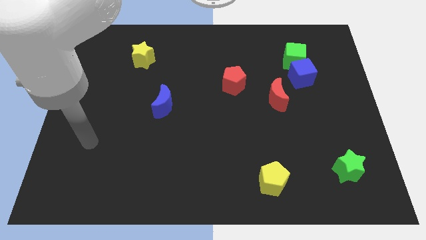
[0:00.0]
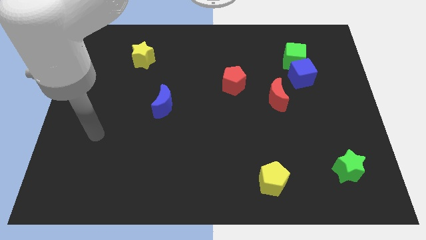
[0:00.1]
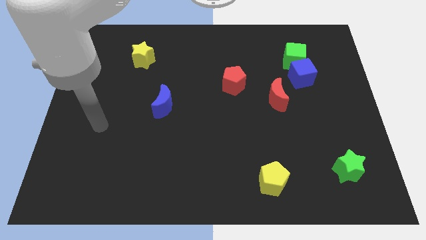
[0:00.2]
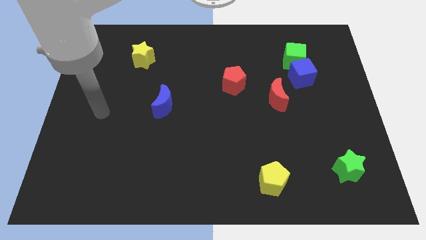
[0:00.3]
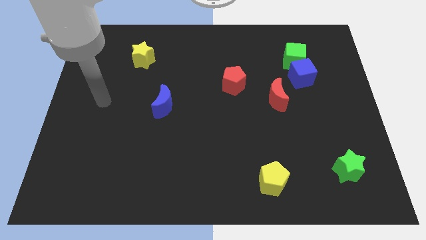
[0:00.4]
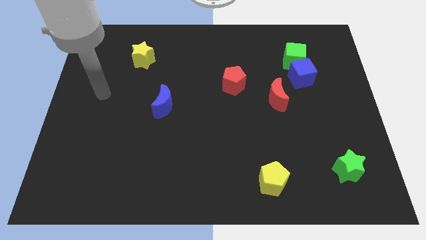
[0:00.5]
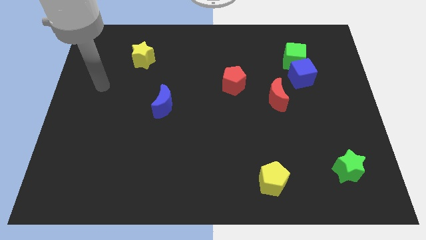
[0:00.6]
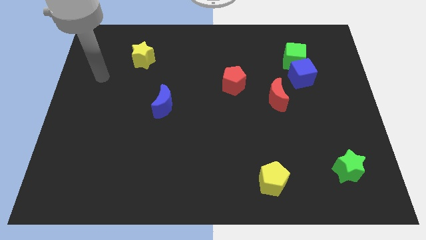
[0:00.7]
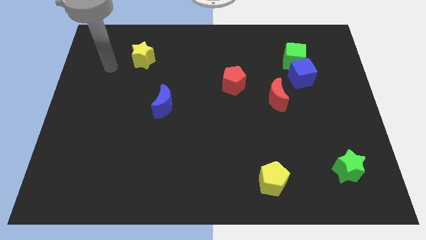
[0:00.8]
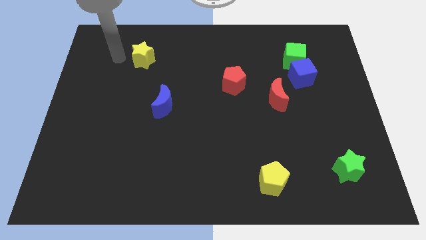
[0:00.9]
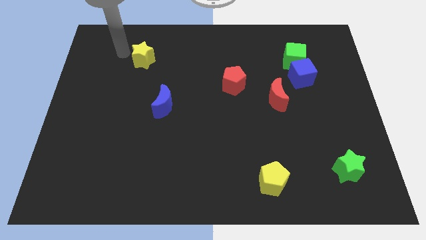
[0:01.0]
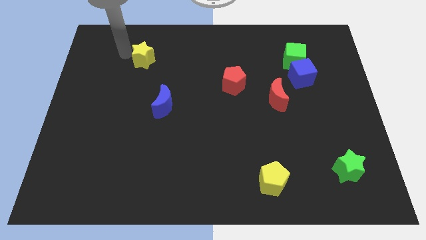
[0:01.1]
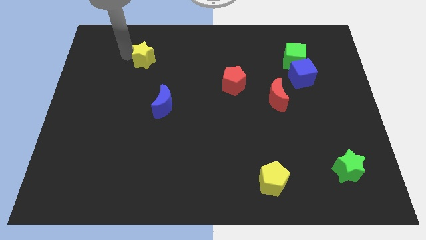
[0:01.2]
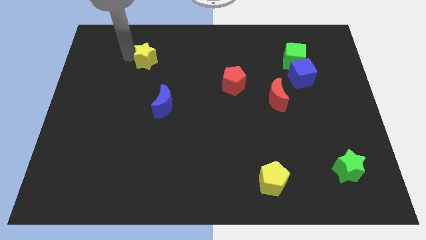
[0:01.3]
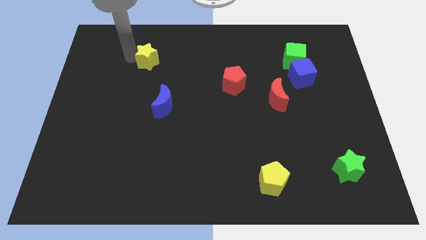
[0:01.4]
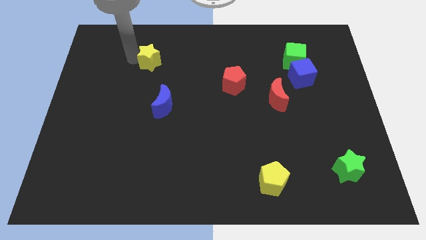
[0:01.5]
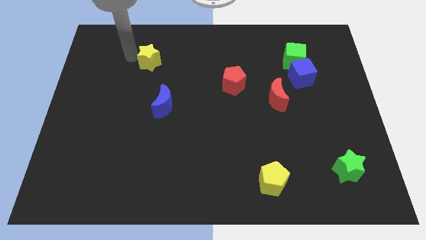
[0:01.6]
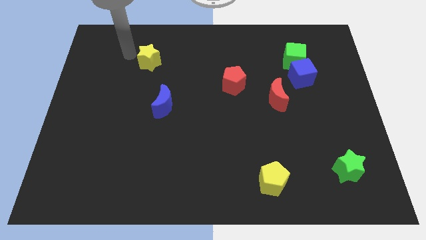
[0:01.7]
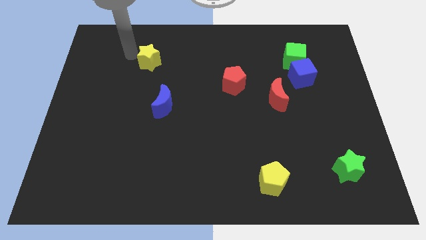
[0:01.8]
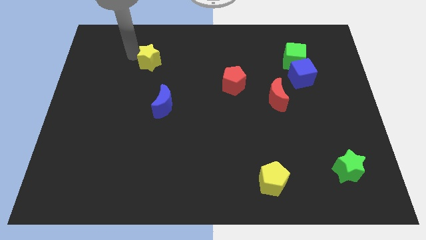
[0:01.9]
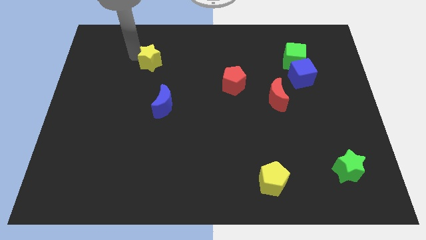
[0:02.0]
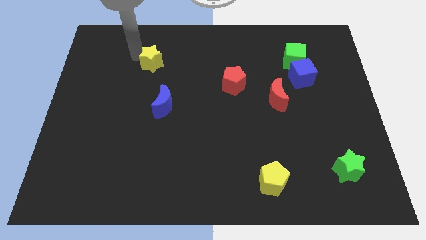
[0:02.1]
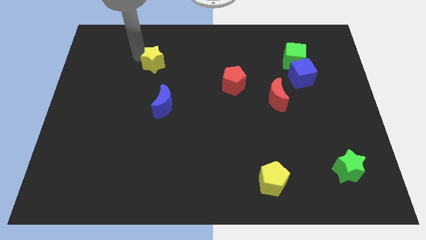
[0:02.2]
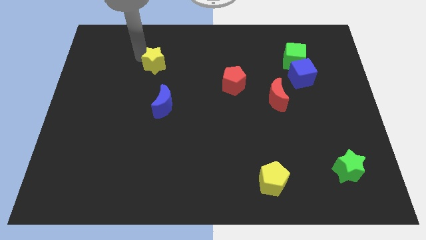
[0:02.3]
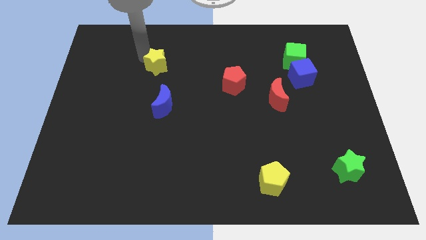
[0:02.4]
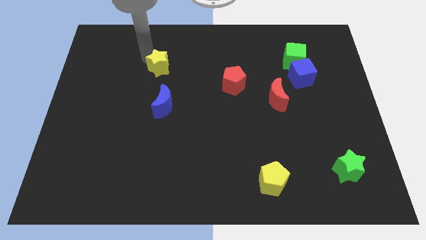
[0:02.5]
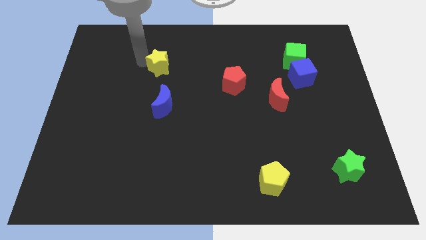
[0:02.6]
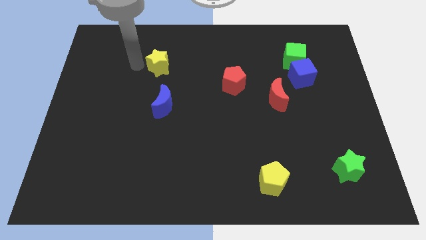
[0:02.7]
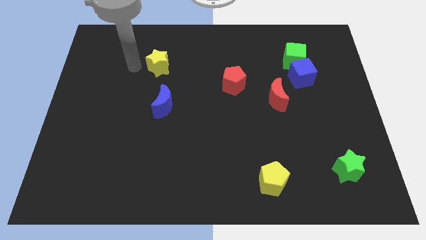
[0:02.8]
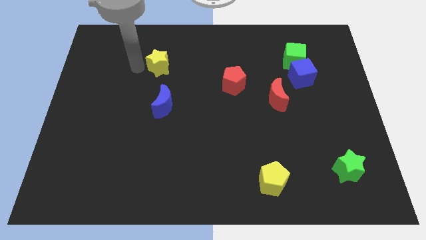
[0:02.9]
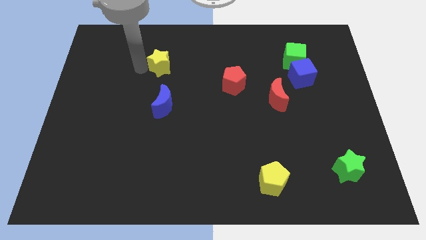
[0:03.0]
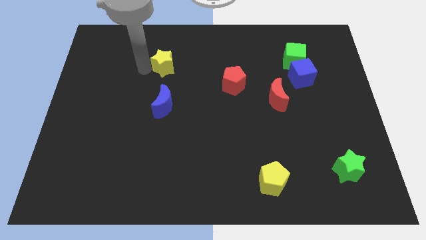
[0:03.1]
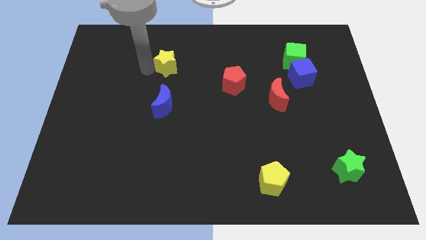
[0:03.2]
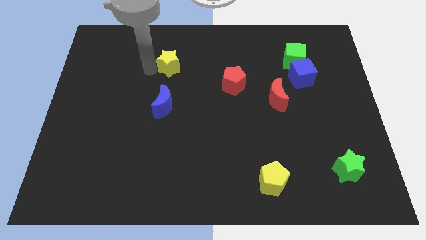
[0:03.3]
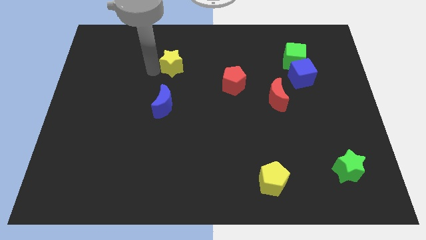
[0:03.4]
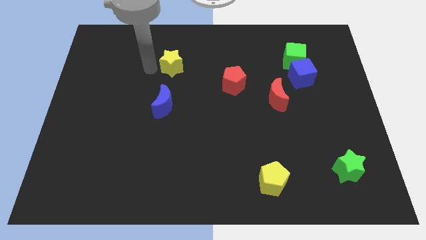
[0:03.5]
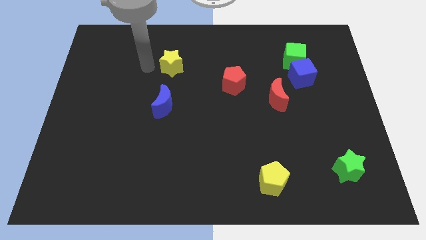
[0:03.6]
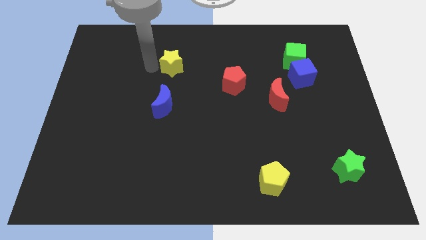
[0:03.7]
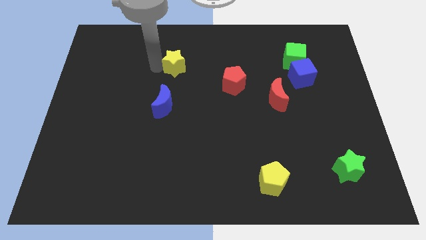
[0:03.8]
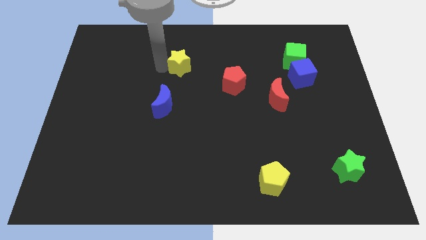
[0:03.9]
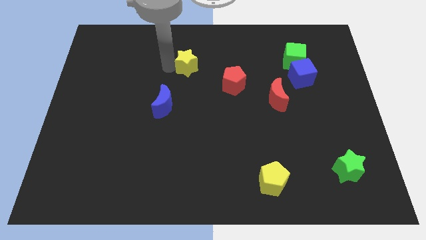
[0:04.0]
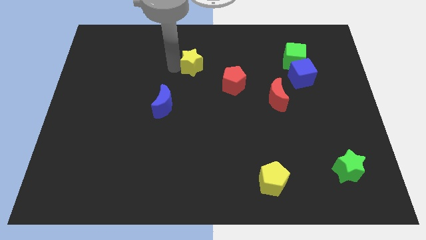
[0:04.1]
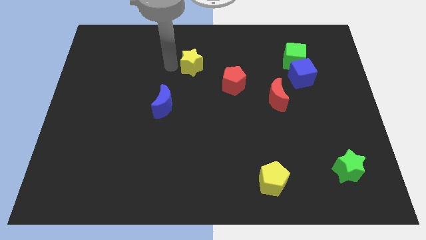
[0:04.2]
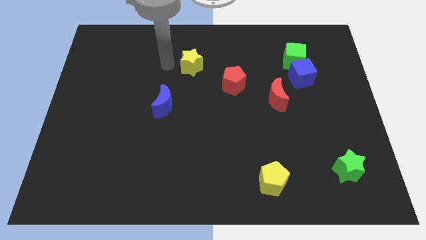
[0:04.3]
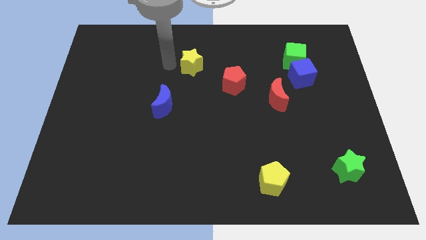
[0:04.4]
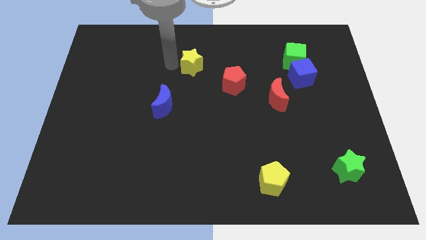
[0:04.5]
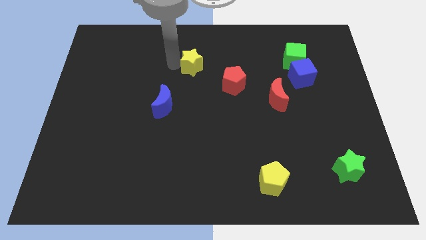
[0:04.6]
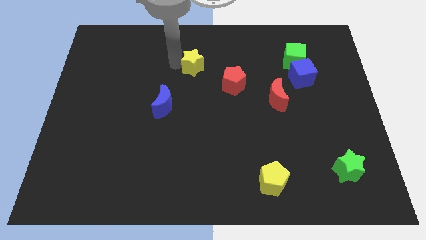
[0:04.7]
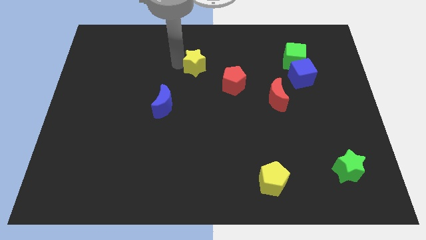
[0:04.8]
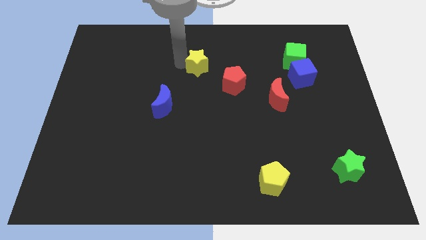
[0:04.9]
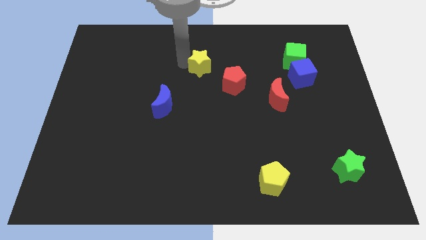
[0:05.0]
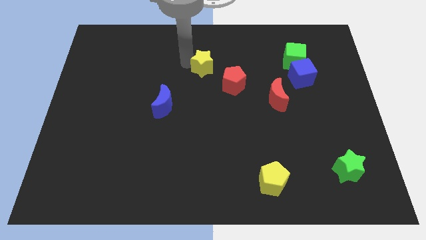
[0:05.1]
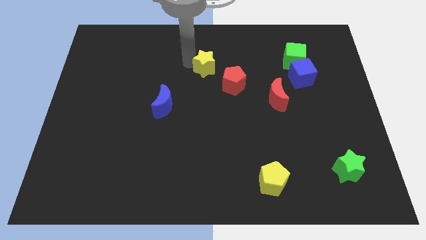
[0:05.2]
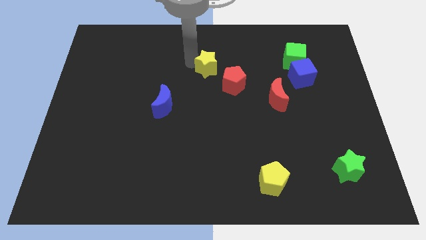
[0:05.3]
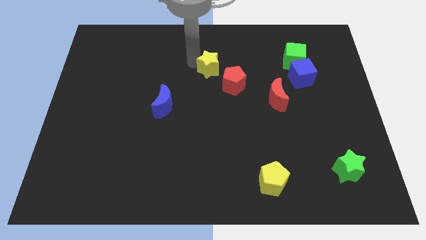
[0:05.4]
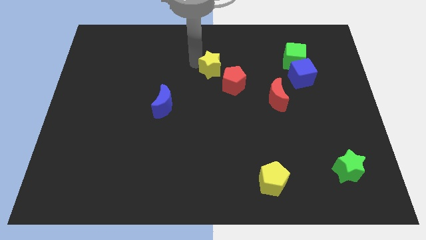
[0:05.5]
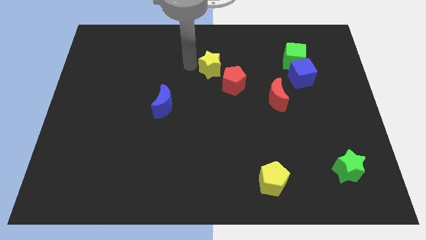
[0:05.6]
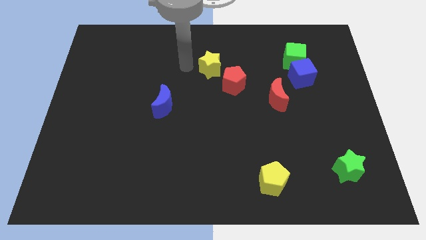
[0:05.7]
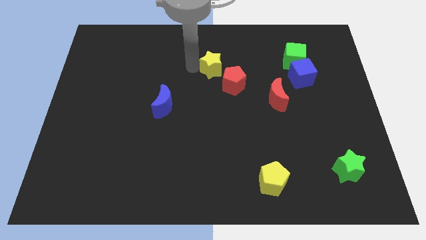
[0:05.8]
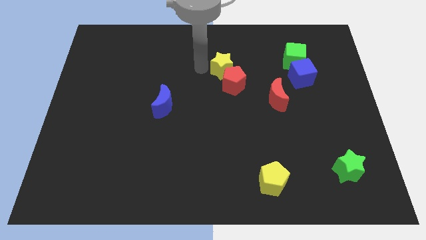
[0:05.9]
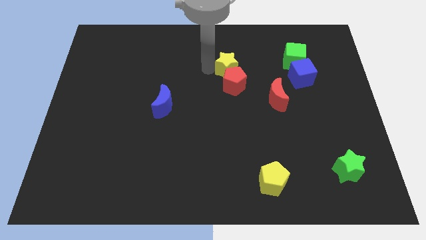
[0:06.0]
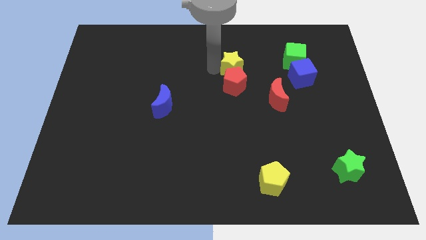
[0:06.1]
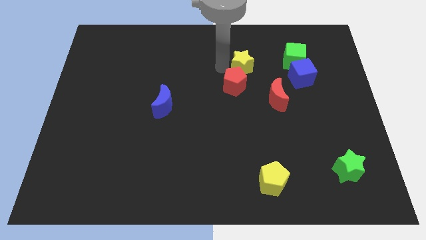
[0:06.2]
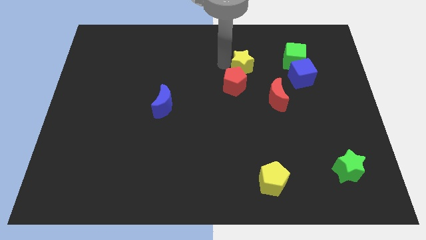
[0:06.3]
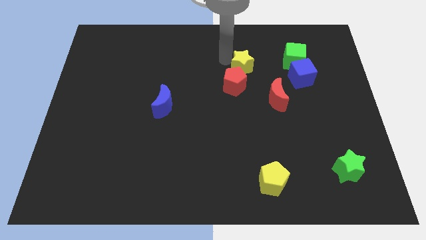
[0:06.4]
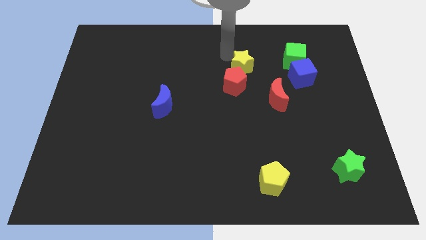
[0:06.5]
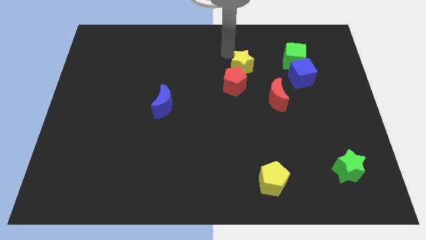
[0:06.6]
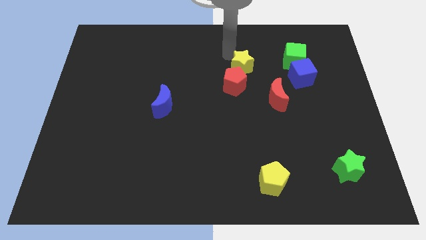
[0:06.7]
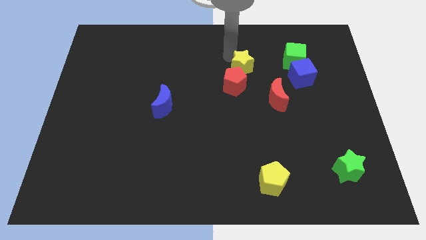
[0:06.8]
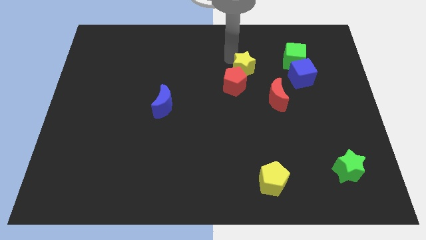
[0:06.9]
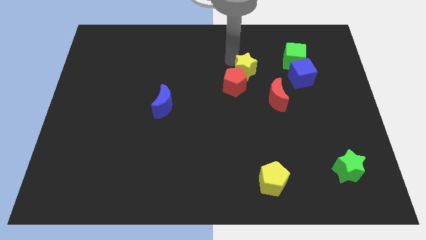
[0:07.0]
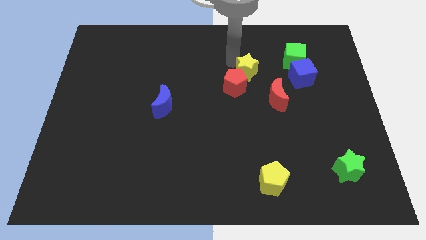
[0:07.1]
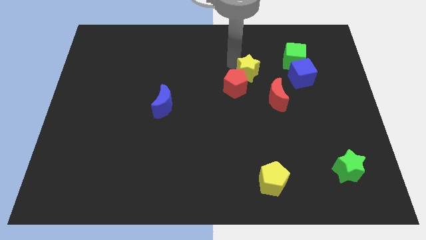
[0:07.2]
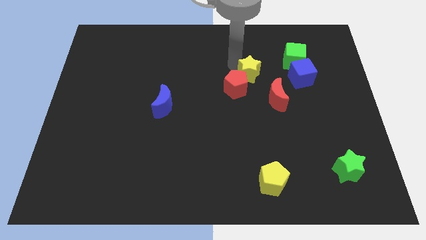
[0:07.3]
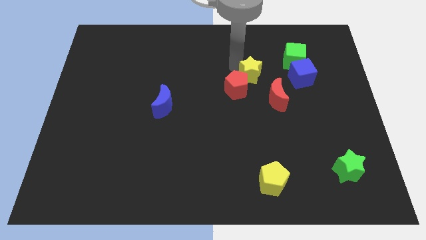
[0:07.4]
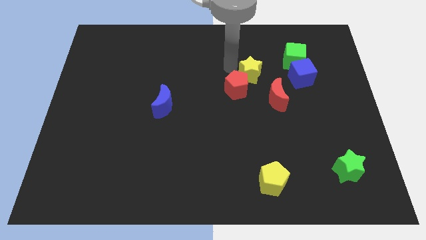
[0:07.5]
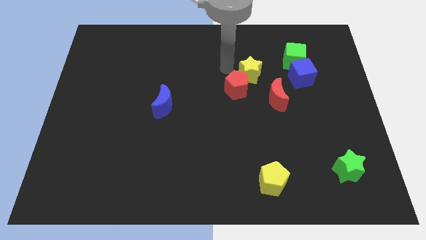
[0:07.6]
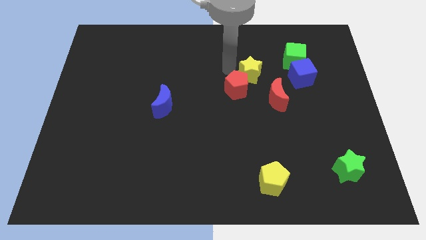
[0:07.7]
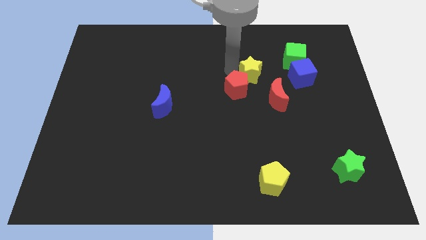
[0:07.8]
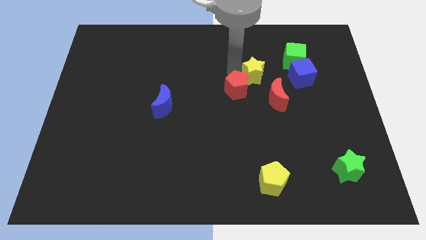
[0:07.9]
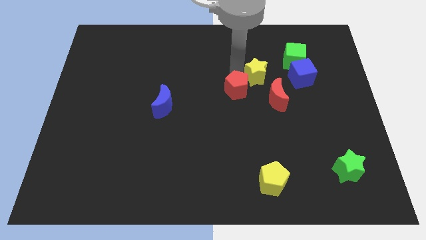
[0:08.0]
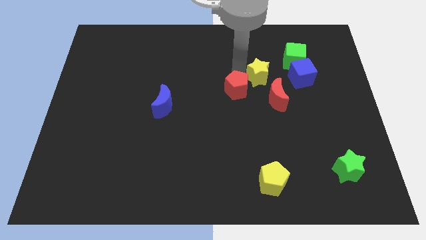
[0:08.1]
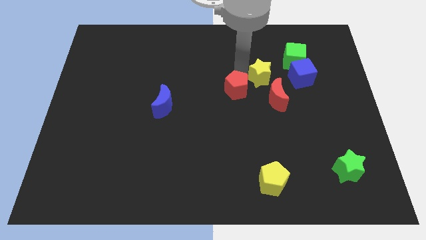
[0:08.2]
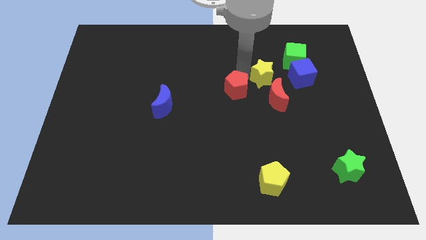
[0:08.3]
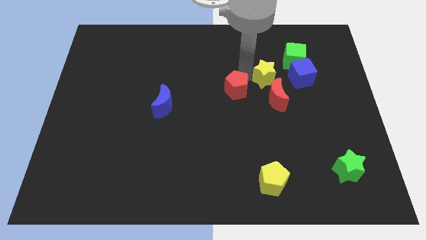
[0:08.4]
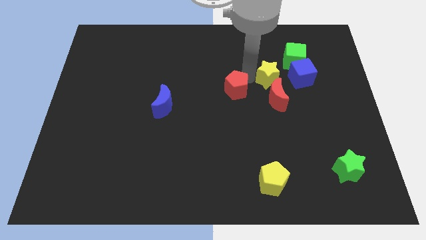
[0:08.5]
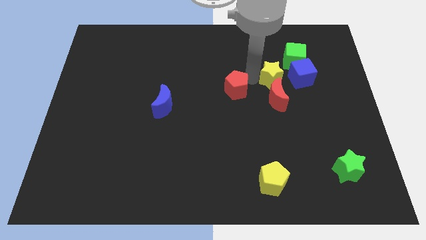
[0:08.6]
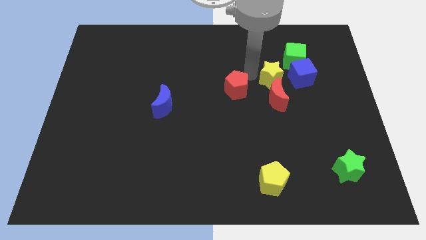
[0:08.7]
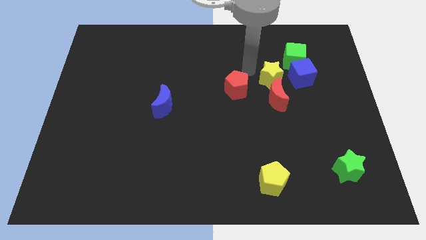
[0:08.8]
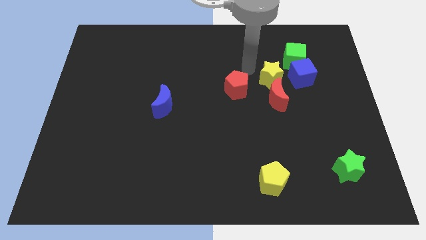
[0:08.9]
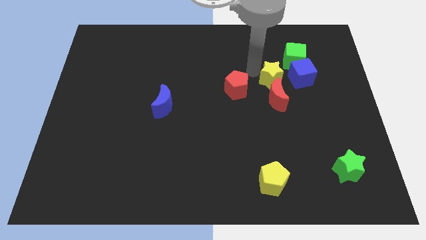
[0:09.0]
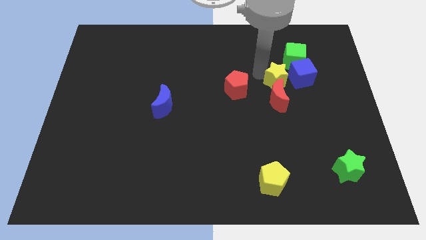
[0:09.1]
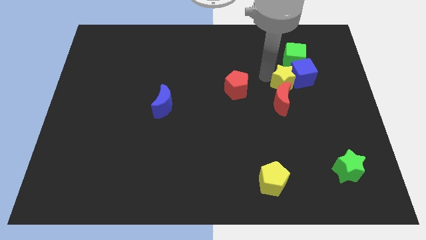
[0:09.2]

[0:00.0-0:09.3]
move the yellow star to the bottom of the green cube
